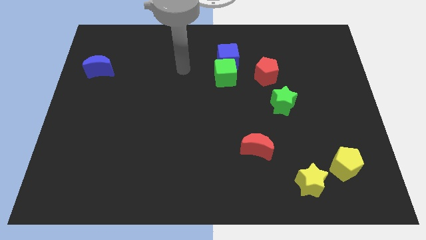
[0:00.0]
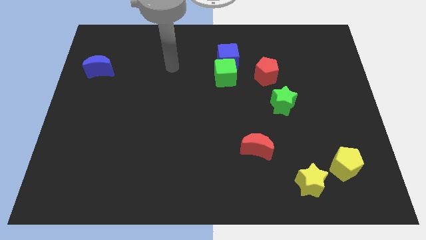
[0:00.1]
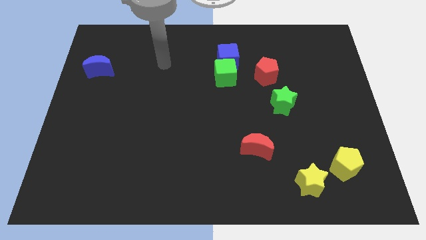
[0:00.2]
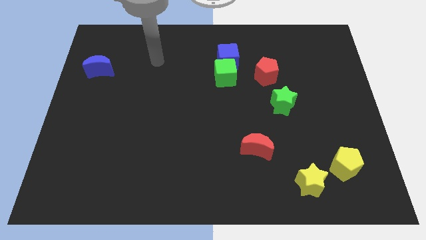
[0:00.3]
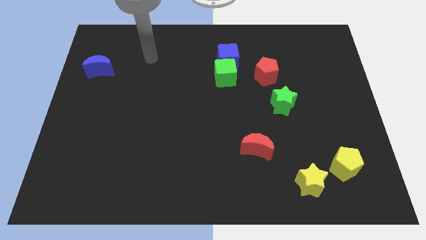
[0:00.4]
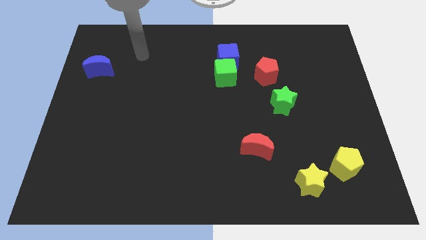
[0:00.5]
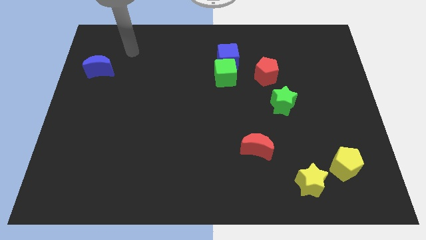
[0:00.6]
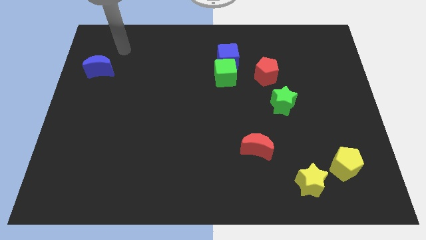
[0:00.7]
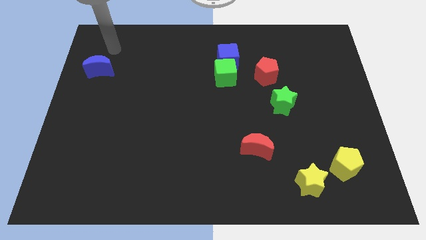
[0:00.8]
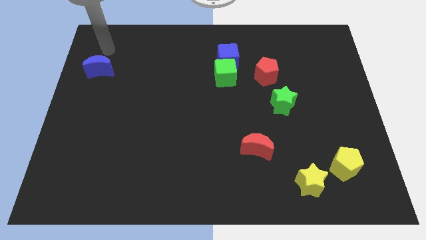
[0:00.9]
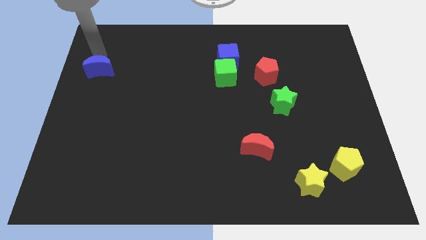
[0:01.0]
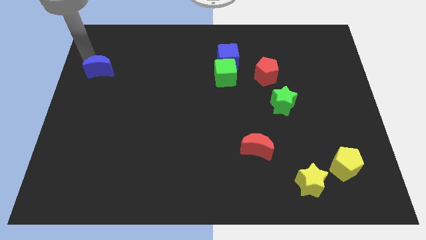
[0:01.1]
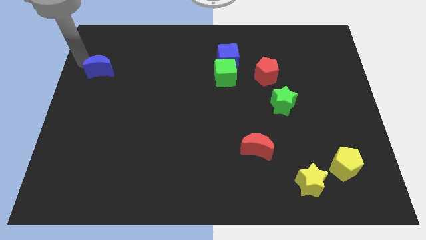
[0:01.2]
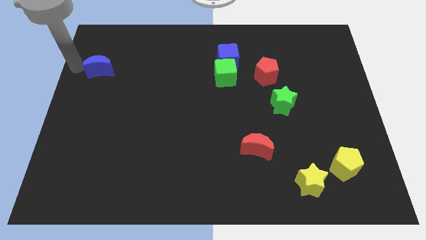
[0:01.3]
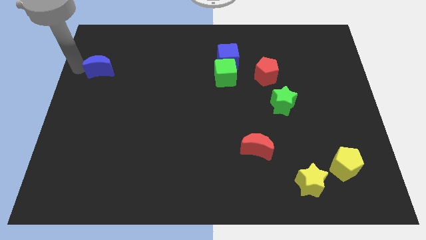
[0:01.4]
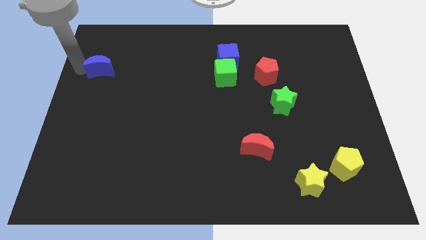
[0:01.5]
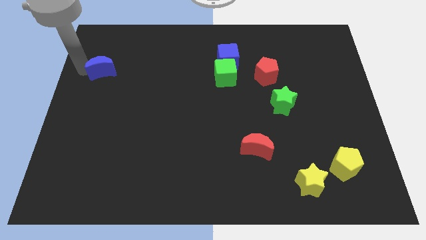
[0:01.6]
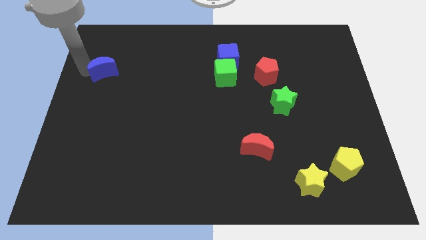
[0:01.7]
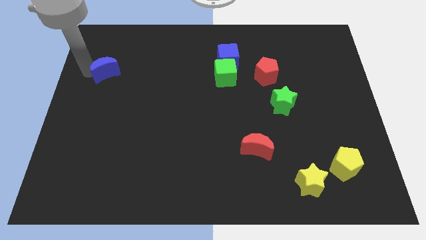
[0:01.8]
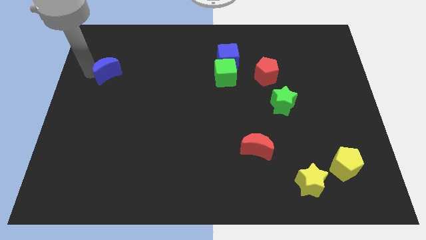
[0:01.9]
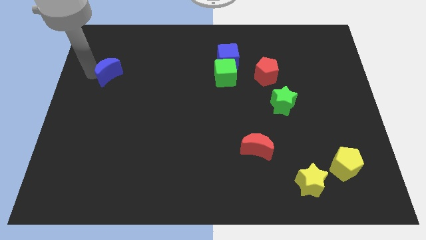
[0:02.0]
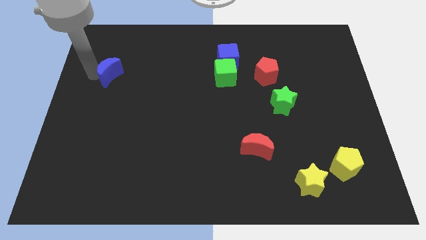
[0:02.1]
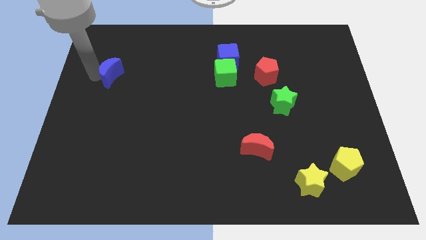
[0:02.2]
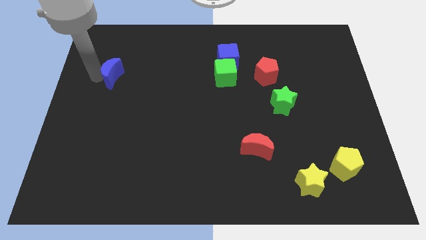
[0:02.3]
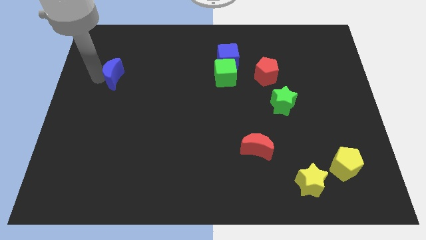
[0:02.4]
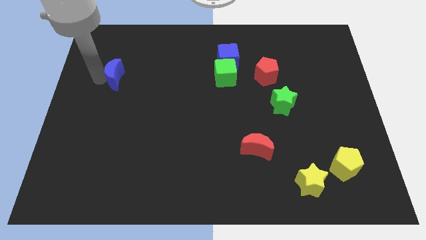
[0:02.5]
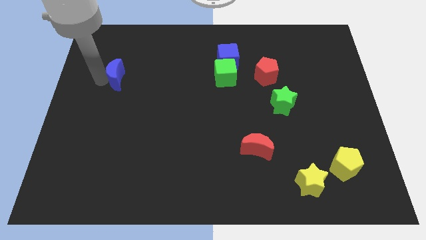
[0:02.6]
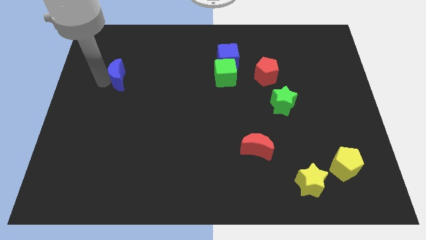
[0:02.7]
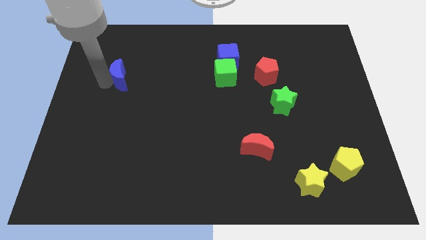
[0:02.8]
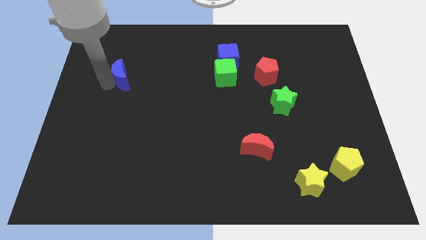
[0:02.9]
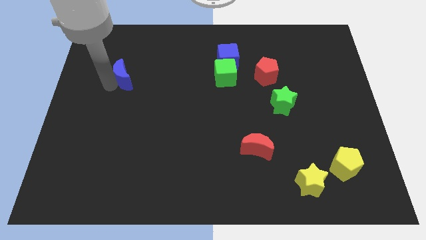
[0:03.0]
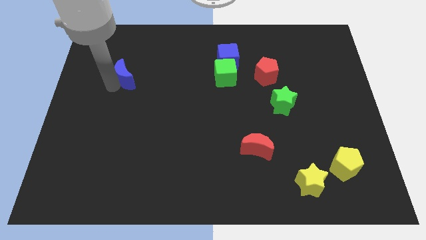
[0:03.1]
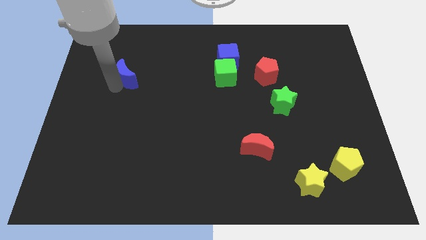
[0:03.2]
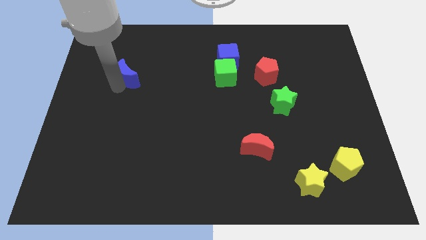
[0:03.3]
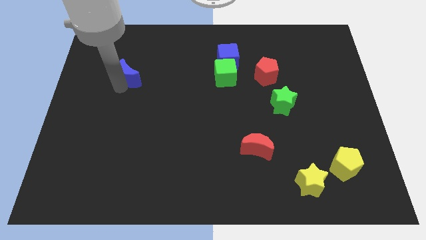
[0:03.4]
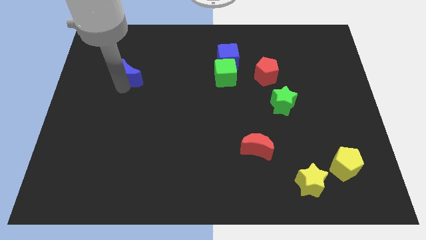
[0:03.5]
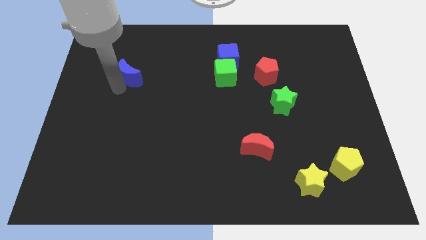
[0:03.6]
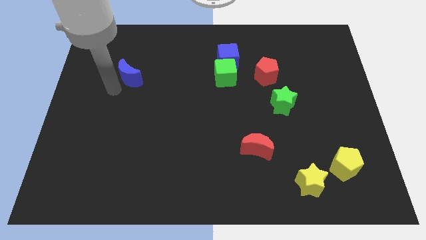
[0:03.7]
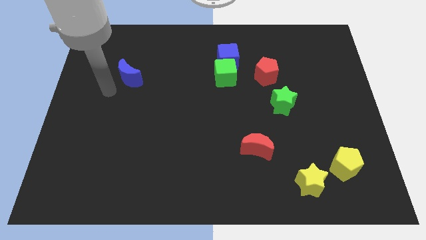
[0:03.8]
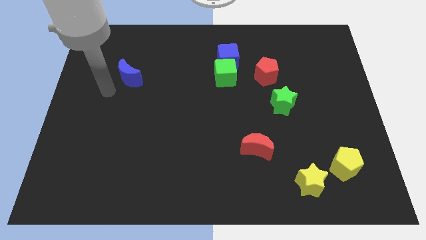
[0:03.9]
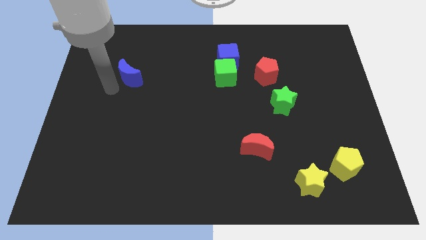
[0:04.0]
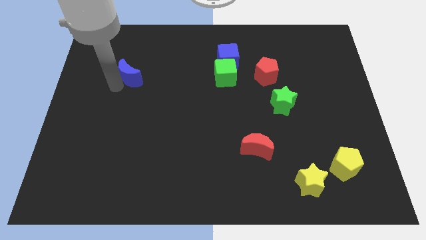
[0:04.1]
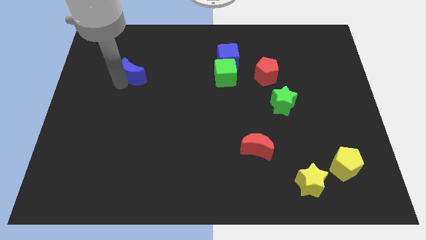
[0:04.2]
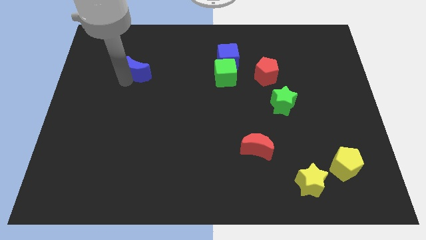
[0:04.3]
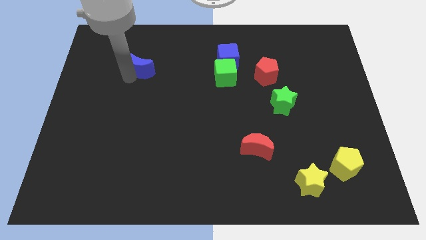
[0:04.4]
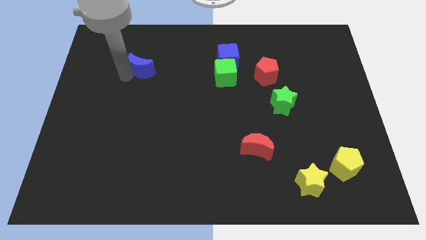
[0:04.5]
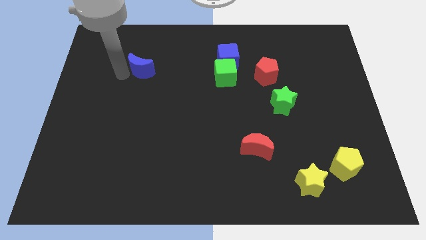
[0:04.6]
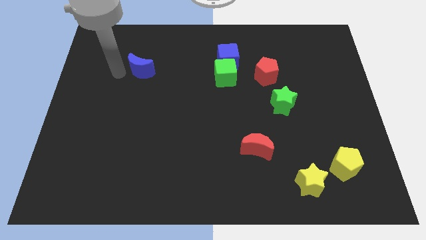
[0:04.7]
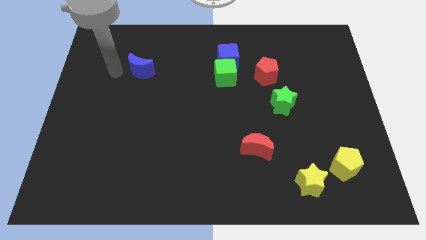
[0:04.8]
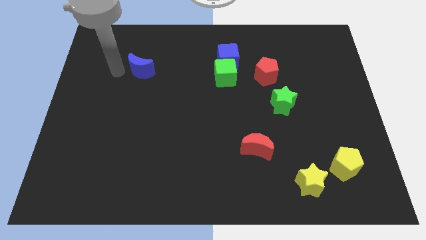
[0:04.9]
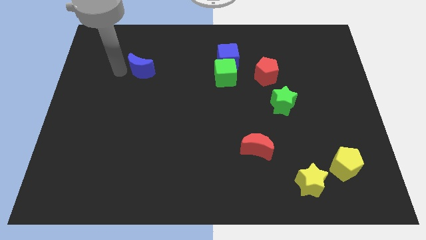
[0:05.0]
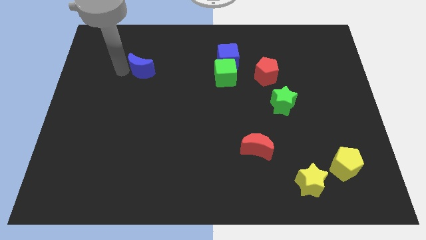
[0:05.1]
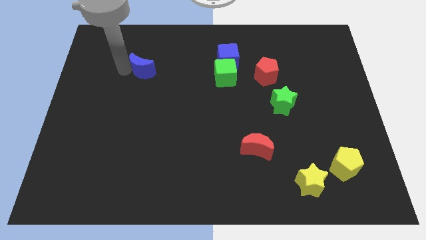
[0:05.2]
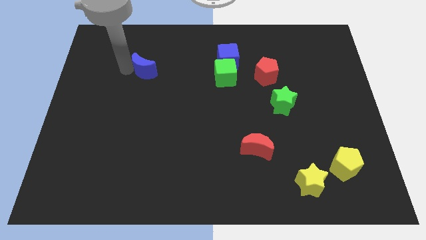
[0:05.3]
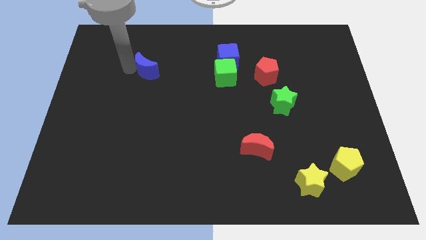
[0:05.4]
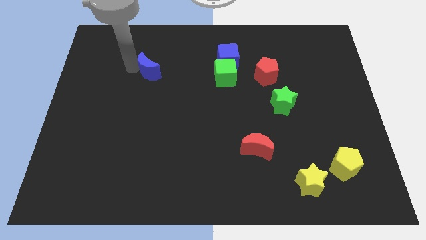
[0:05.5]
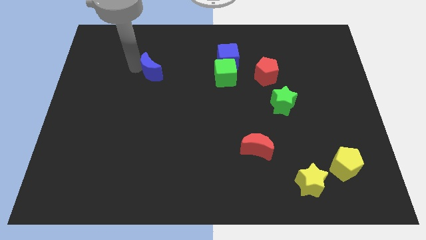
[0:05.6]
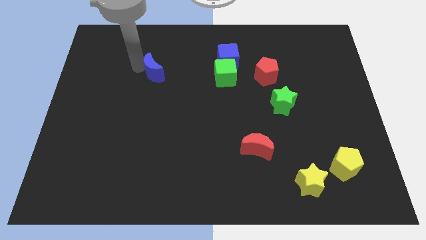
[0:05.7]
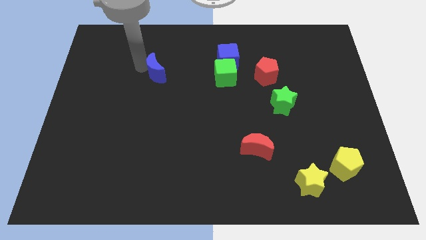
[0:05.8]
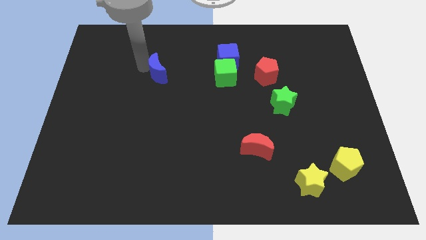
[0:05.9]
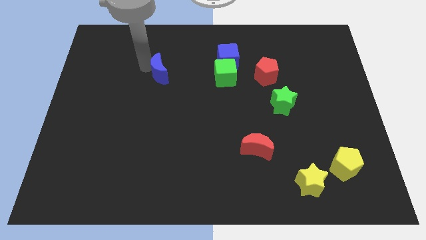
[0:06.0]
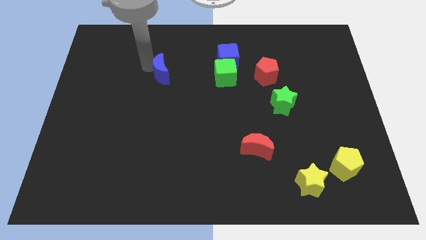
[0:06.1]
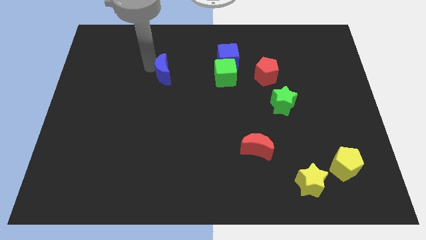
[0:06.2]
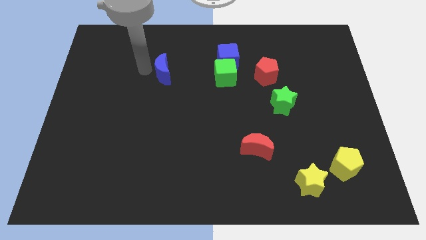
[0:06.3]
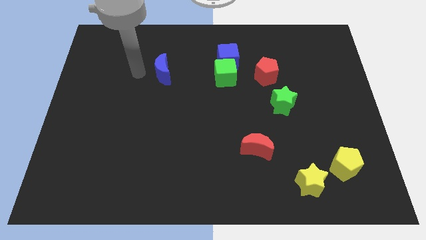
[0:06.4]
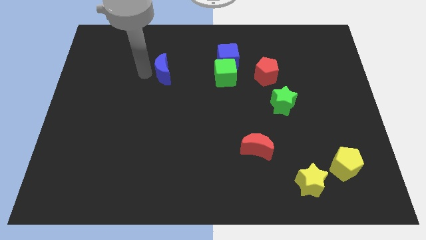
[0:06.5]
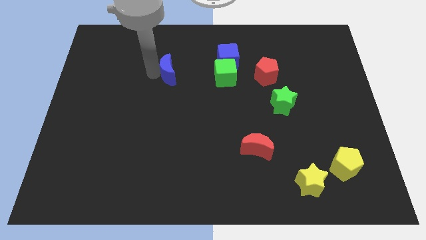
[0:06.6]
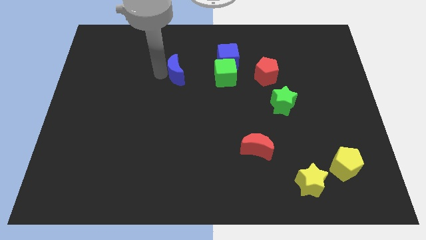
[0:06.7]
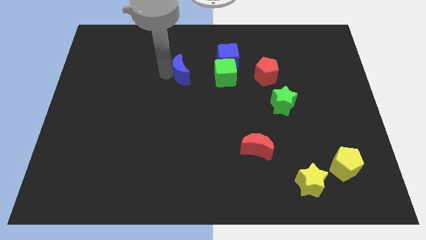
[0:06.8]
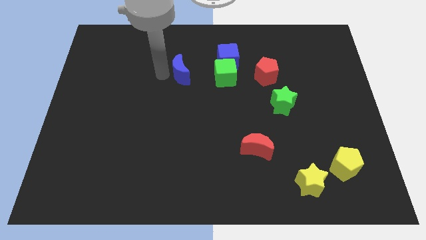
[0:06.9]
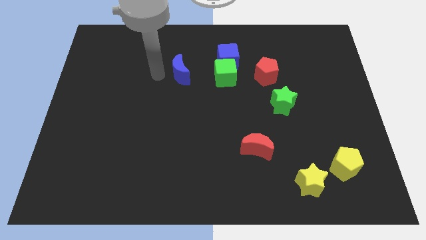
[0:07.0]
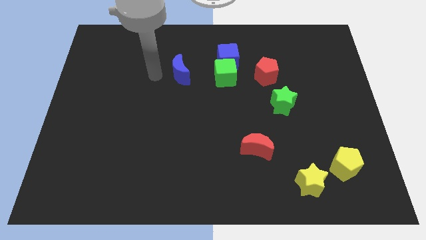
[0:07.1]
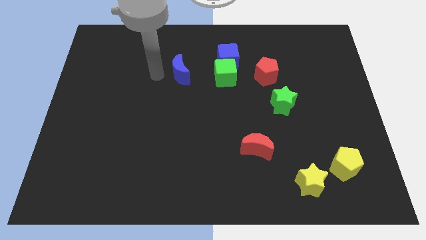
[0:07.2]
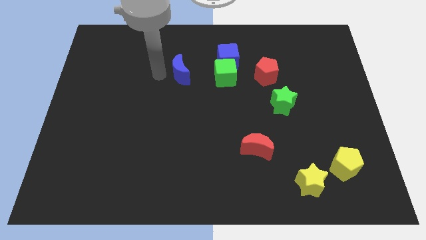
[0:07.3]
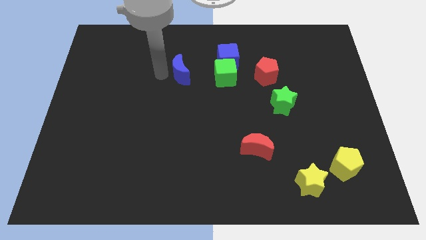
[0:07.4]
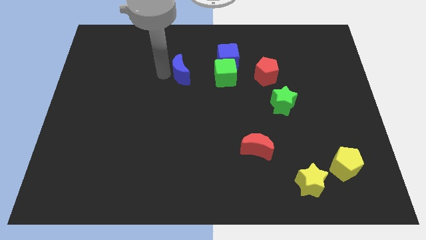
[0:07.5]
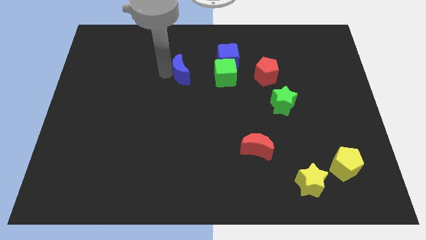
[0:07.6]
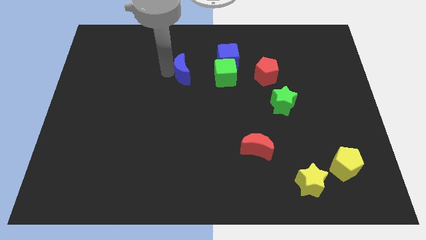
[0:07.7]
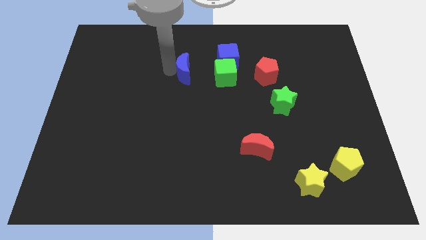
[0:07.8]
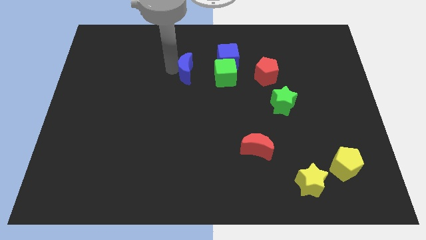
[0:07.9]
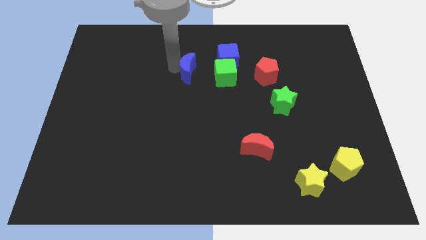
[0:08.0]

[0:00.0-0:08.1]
slide the blue moon to the bottom left of the blue cube
